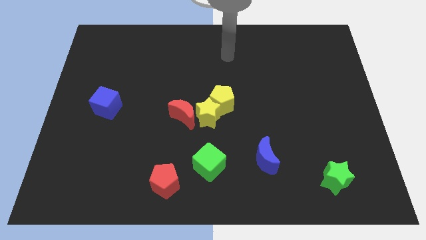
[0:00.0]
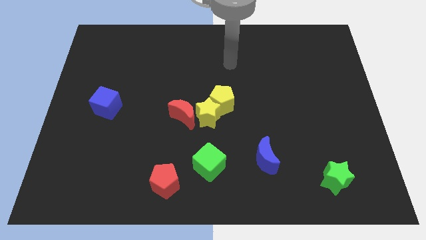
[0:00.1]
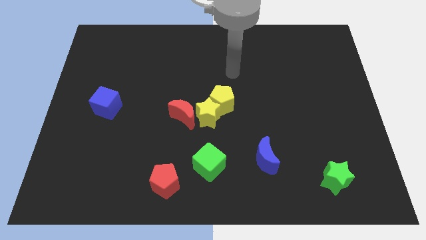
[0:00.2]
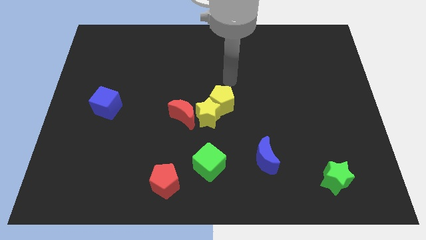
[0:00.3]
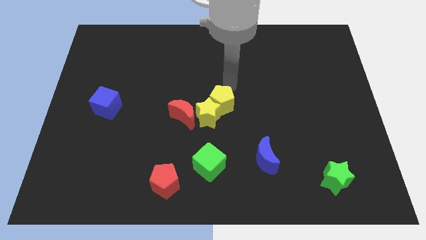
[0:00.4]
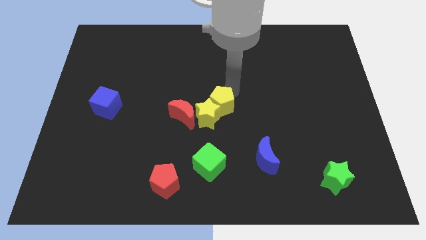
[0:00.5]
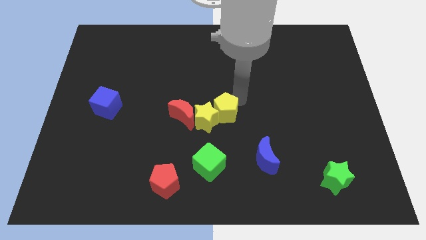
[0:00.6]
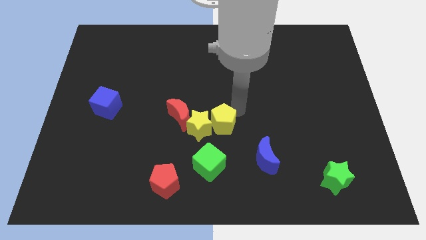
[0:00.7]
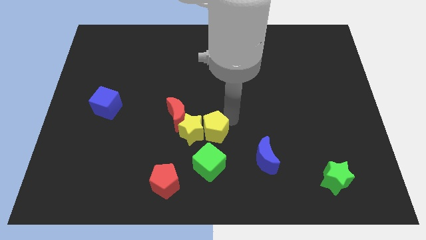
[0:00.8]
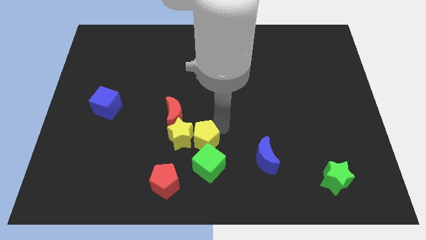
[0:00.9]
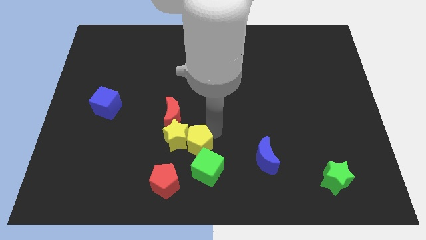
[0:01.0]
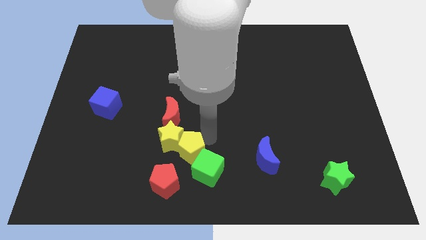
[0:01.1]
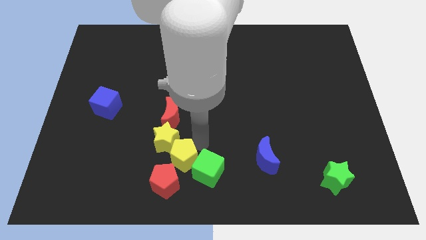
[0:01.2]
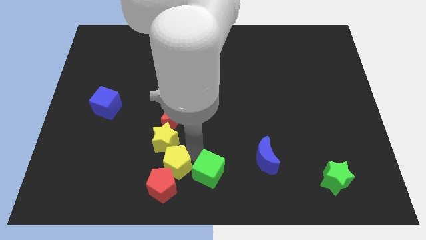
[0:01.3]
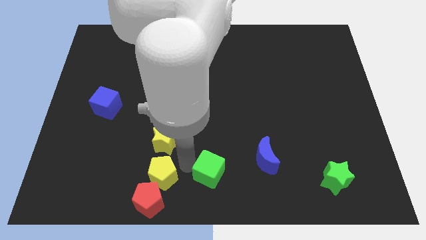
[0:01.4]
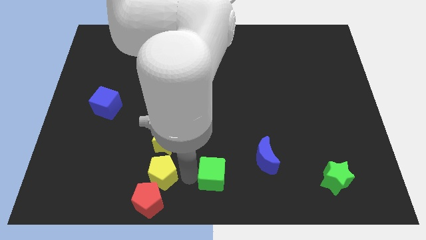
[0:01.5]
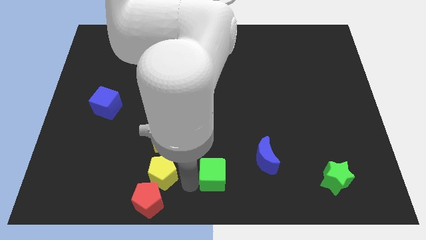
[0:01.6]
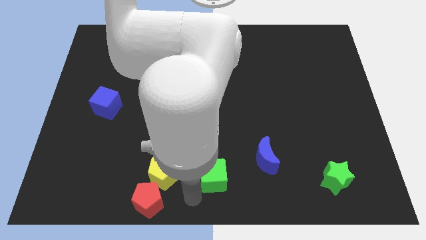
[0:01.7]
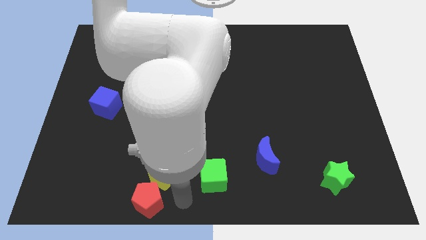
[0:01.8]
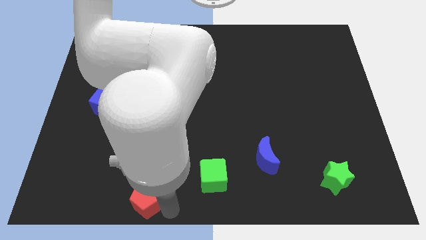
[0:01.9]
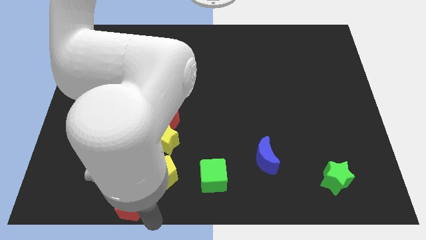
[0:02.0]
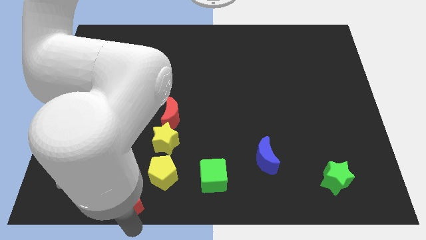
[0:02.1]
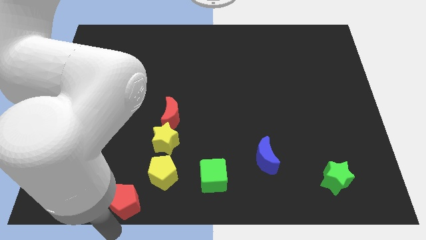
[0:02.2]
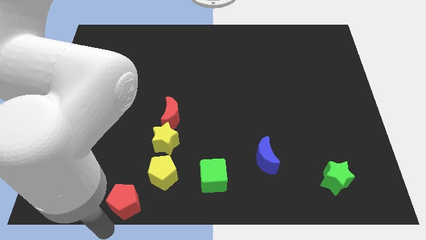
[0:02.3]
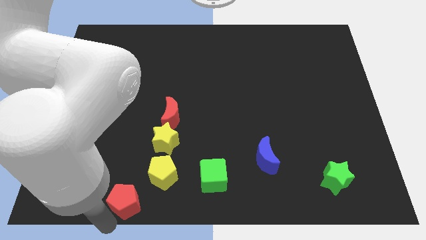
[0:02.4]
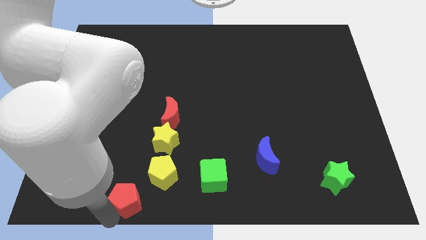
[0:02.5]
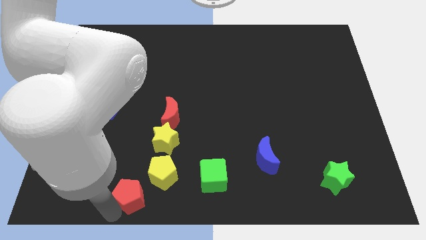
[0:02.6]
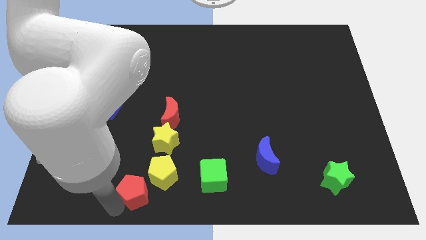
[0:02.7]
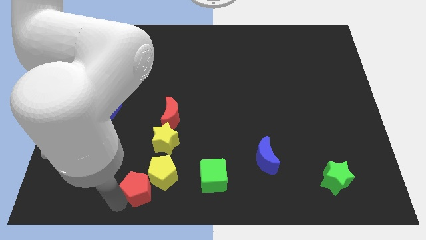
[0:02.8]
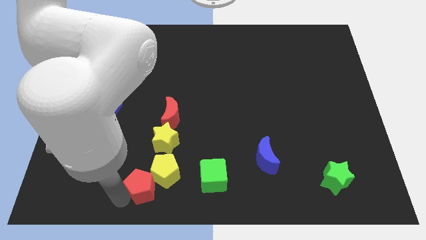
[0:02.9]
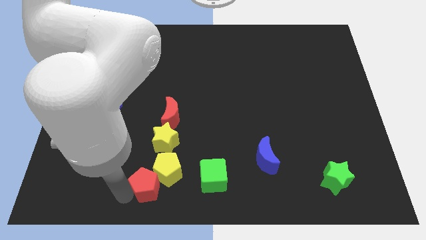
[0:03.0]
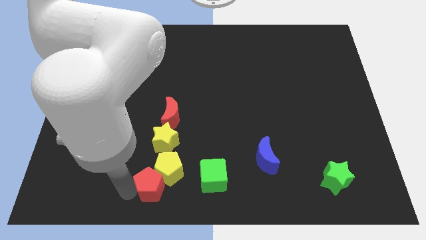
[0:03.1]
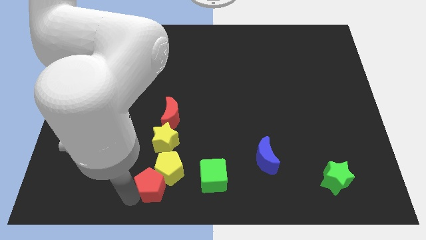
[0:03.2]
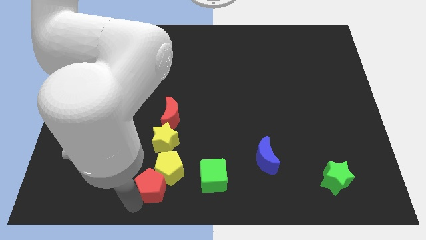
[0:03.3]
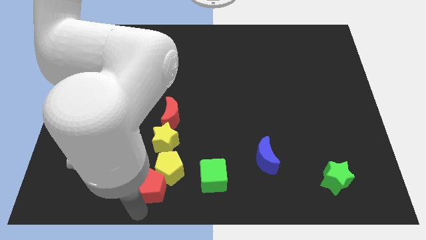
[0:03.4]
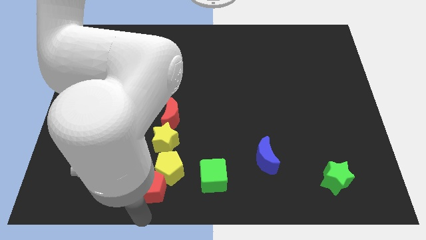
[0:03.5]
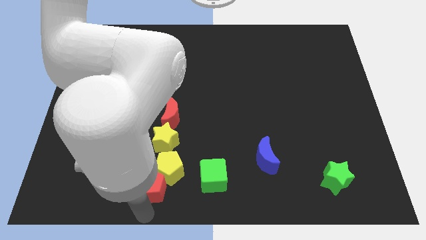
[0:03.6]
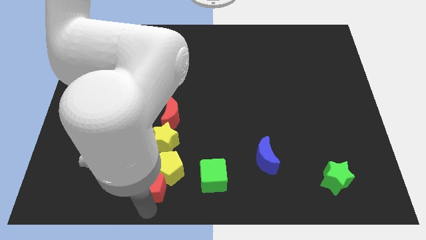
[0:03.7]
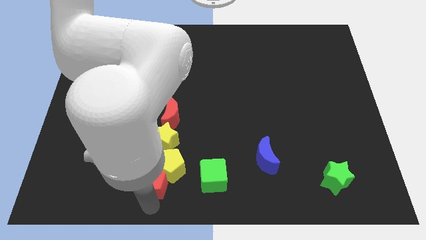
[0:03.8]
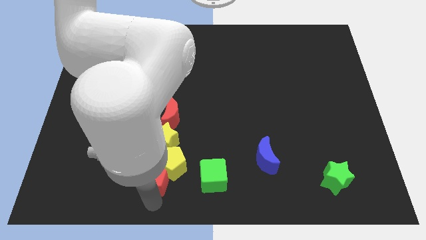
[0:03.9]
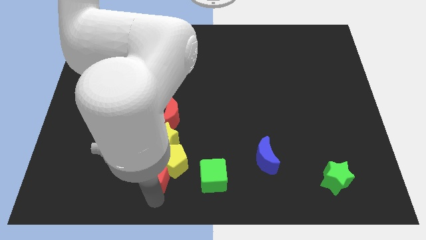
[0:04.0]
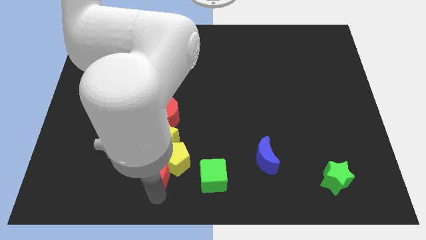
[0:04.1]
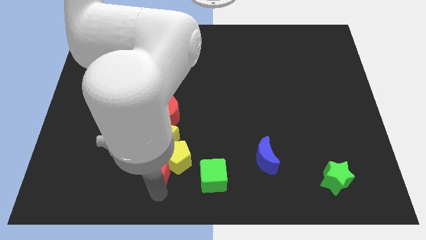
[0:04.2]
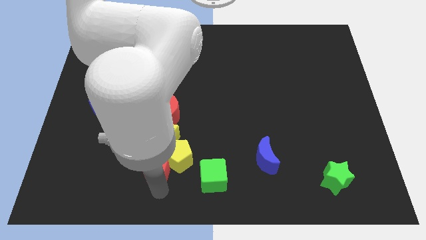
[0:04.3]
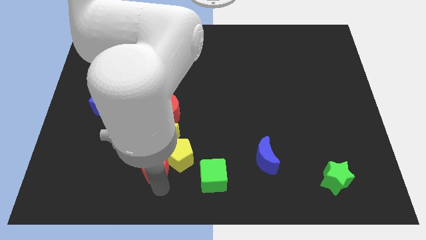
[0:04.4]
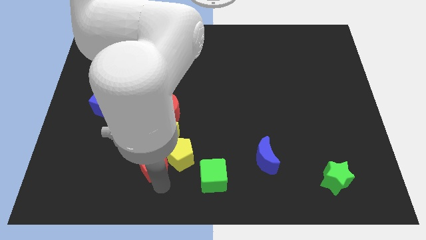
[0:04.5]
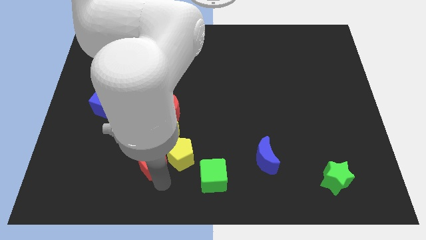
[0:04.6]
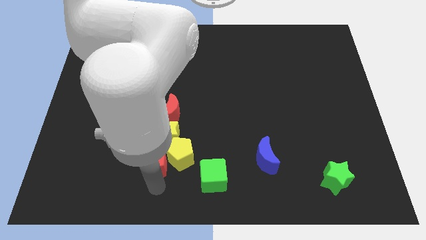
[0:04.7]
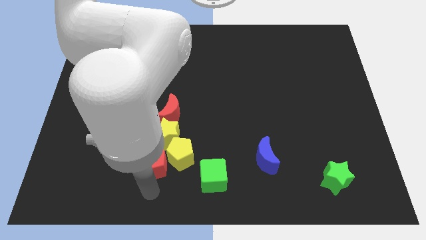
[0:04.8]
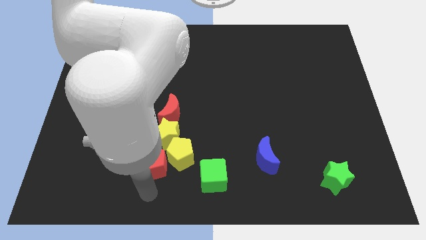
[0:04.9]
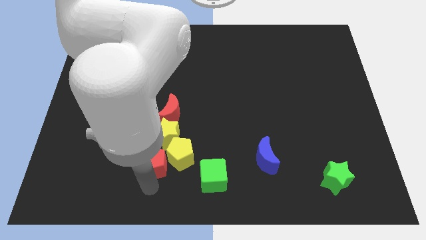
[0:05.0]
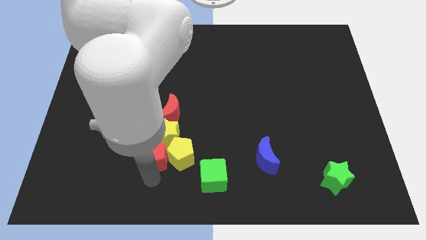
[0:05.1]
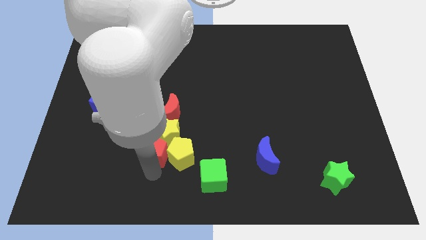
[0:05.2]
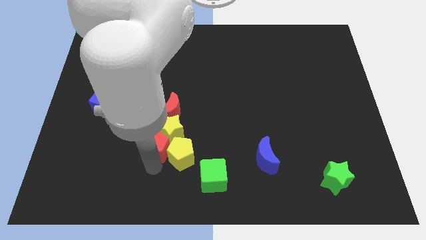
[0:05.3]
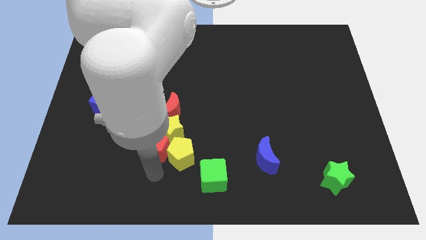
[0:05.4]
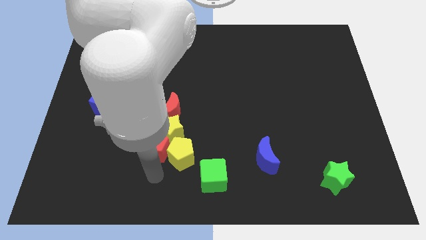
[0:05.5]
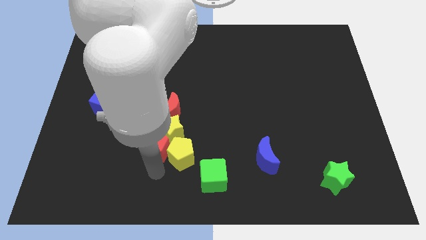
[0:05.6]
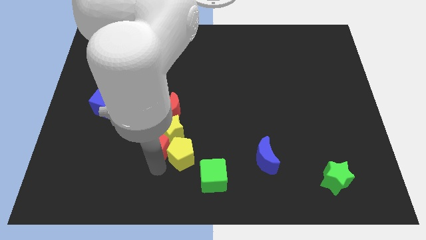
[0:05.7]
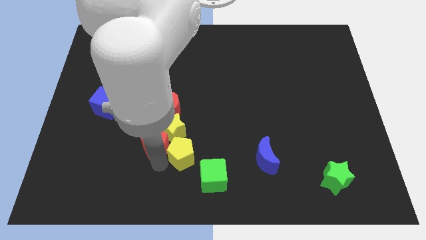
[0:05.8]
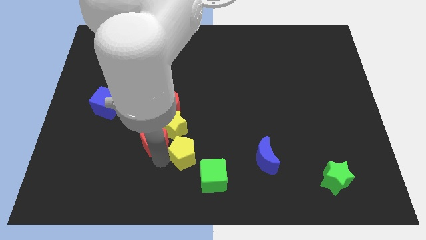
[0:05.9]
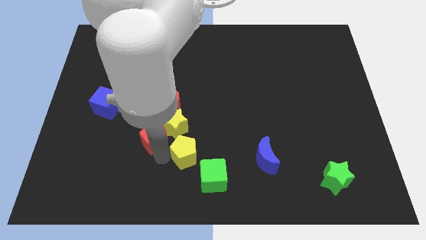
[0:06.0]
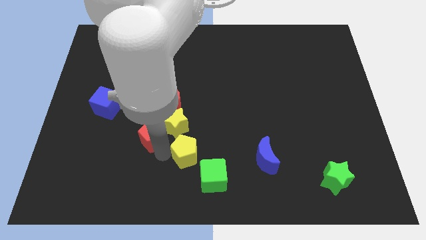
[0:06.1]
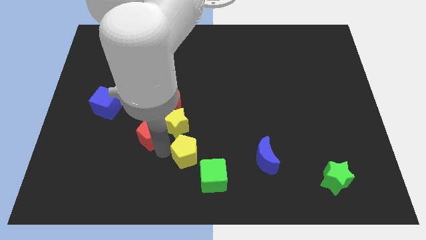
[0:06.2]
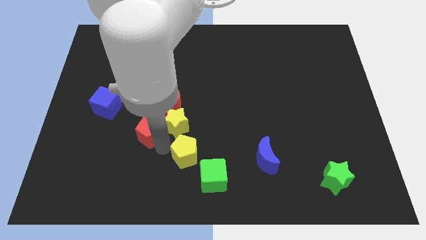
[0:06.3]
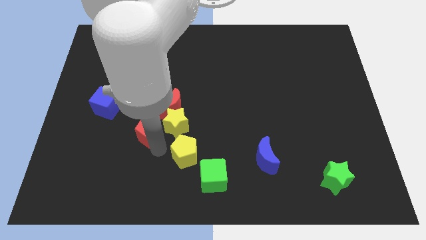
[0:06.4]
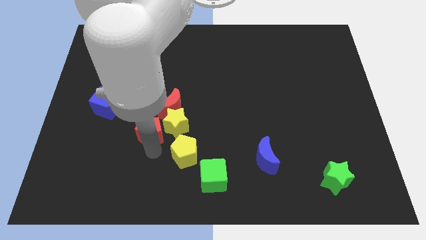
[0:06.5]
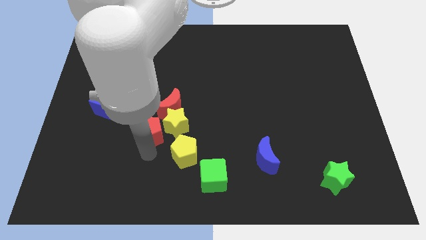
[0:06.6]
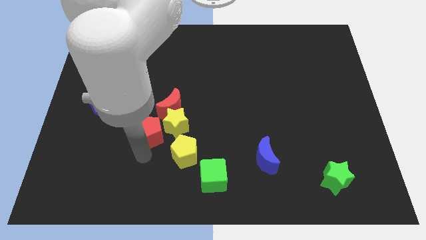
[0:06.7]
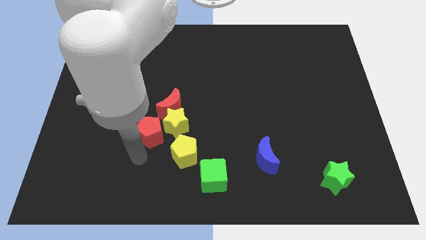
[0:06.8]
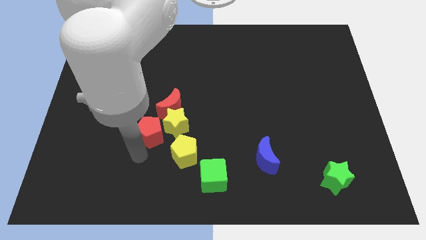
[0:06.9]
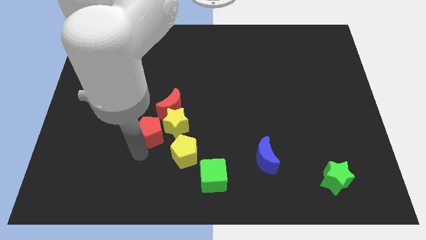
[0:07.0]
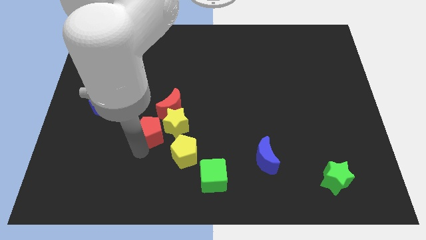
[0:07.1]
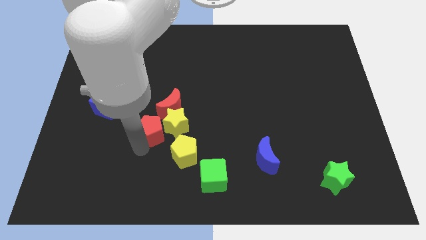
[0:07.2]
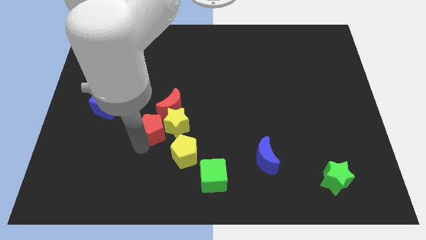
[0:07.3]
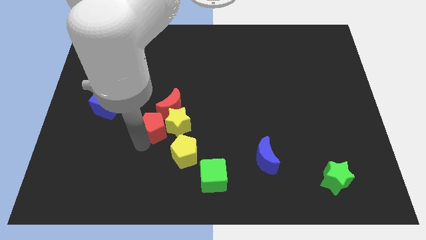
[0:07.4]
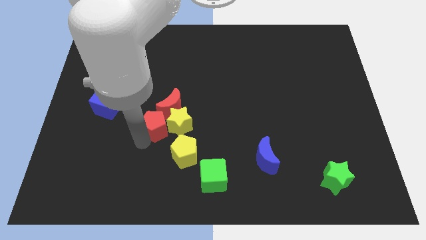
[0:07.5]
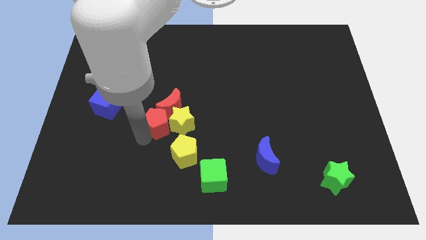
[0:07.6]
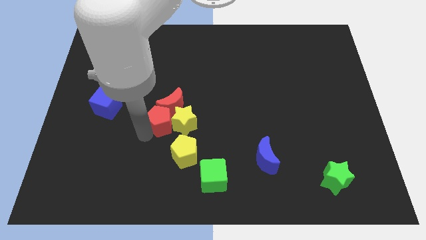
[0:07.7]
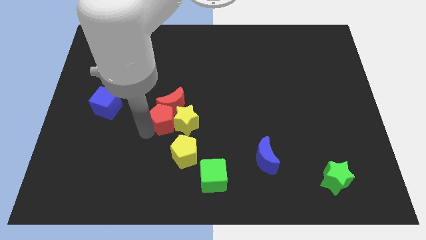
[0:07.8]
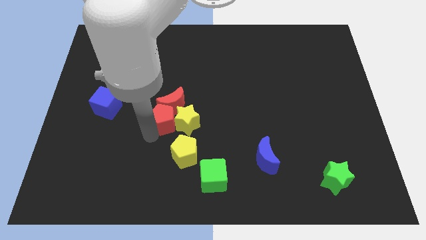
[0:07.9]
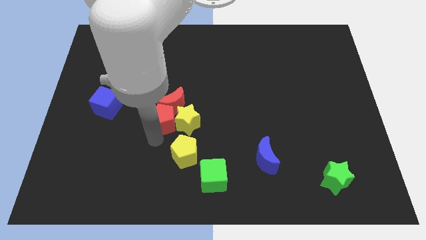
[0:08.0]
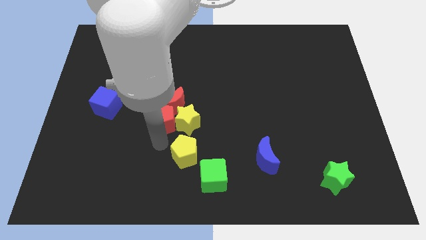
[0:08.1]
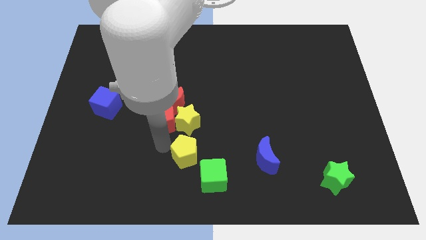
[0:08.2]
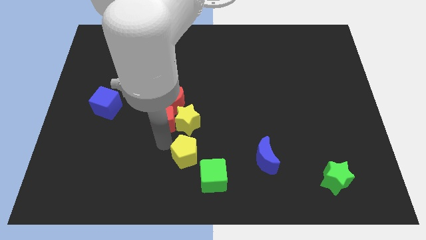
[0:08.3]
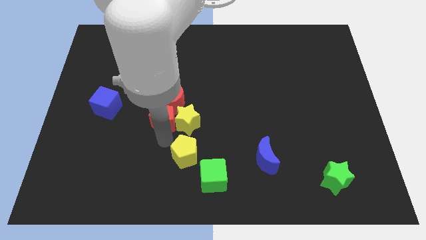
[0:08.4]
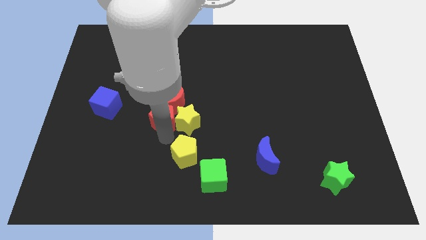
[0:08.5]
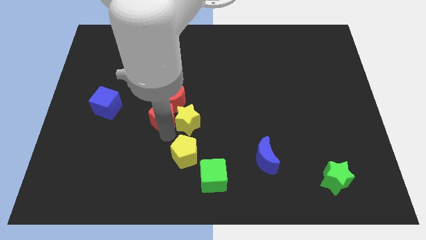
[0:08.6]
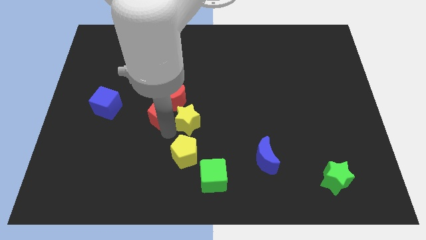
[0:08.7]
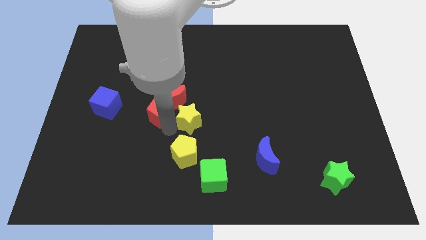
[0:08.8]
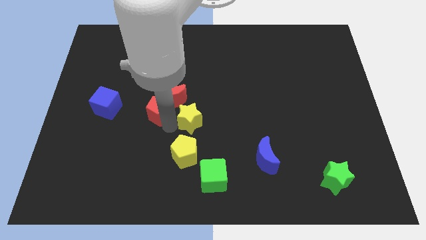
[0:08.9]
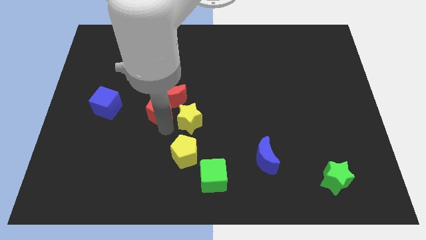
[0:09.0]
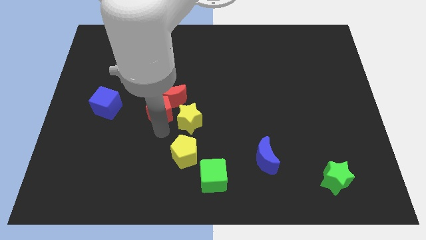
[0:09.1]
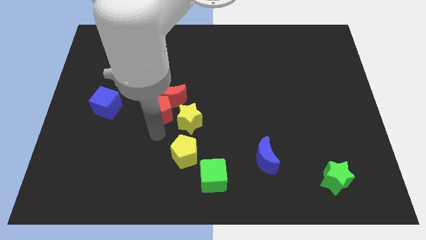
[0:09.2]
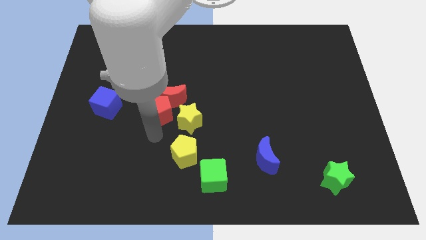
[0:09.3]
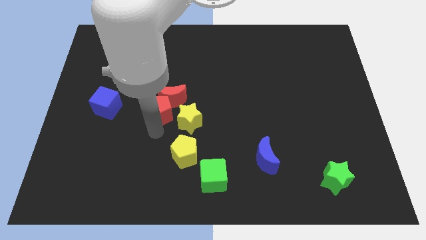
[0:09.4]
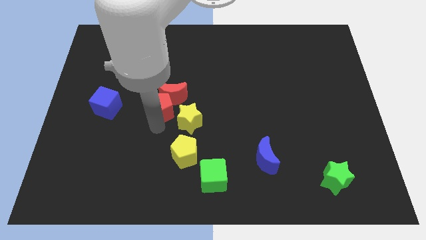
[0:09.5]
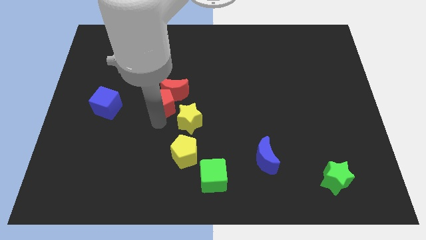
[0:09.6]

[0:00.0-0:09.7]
slide the red pentagon upwards
